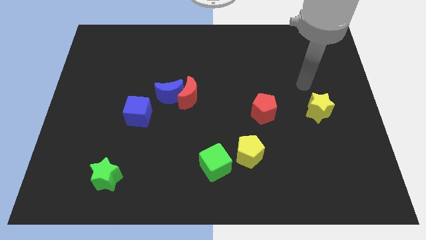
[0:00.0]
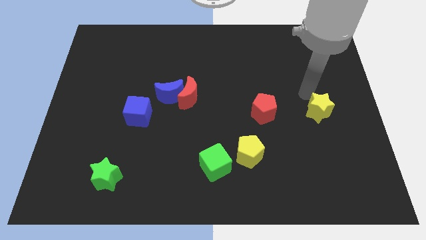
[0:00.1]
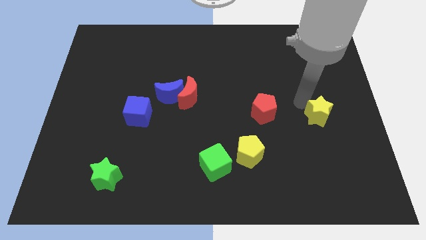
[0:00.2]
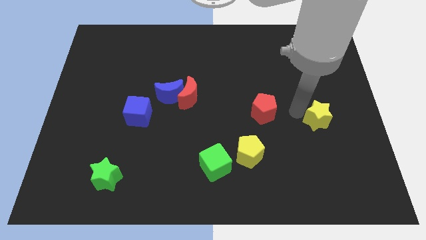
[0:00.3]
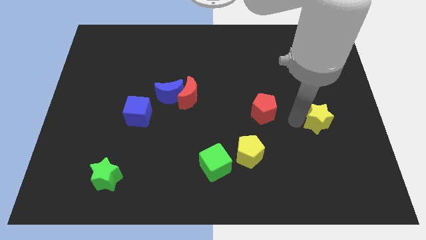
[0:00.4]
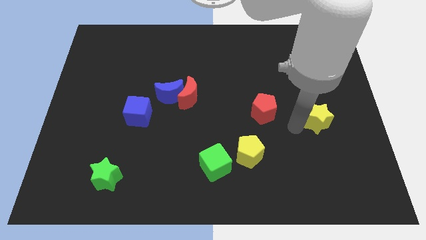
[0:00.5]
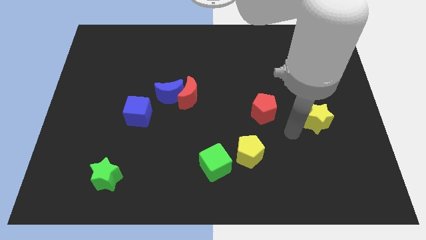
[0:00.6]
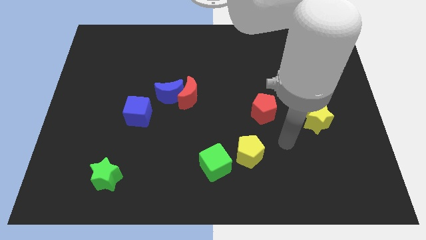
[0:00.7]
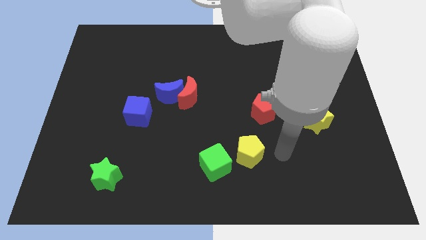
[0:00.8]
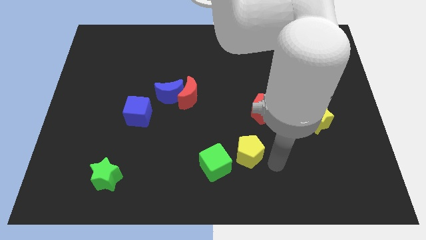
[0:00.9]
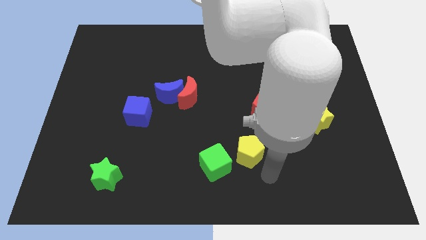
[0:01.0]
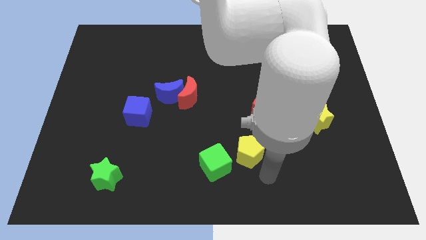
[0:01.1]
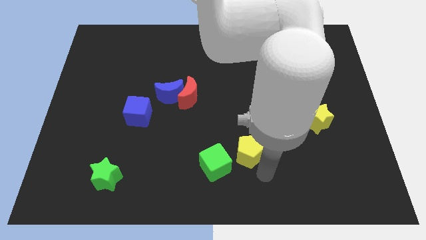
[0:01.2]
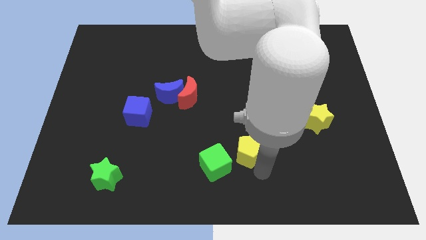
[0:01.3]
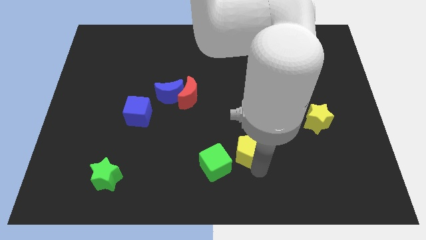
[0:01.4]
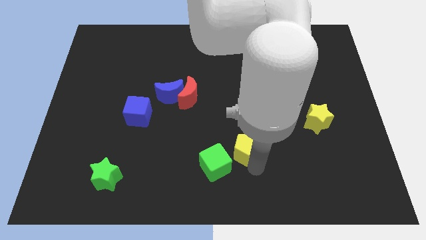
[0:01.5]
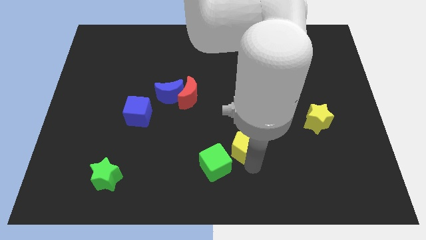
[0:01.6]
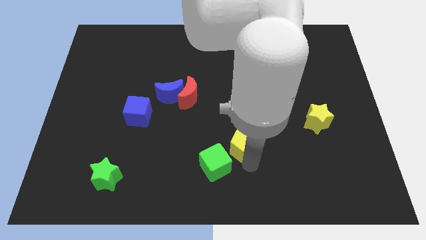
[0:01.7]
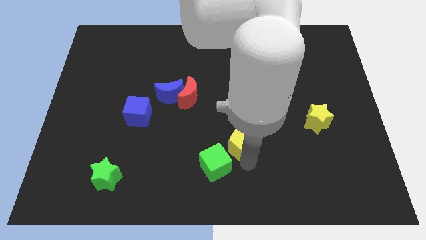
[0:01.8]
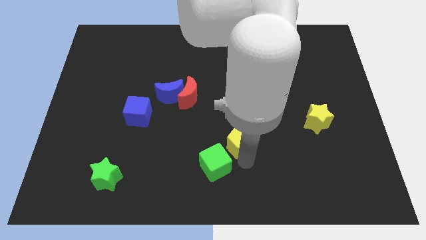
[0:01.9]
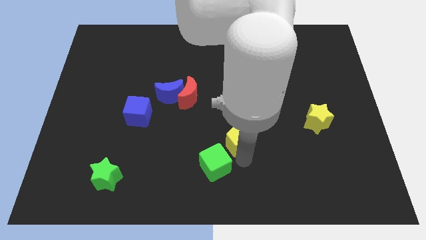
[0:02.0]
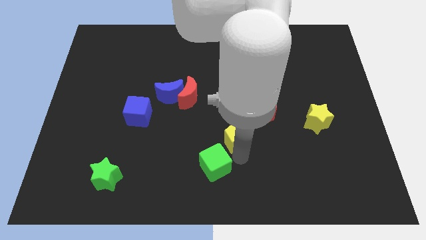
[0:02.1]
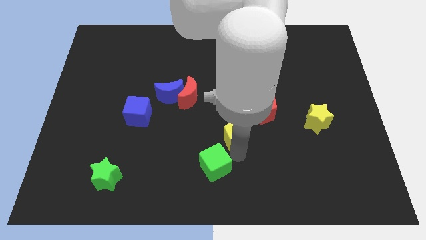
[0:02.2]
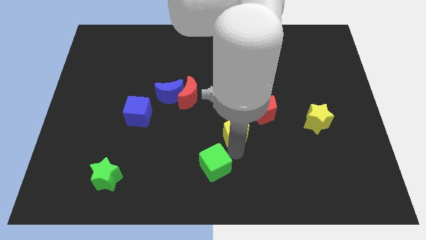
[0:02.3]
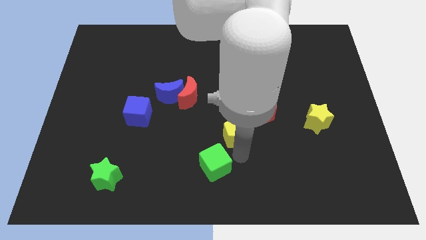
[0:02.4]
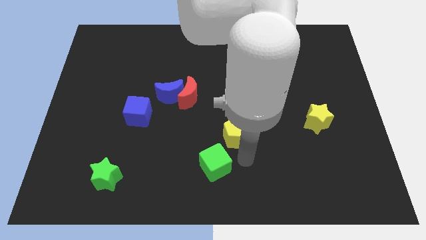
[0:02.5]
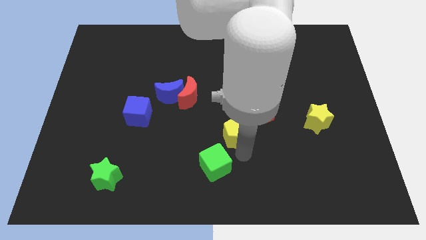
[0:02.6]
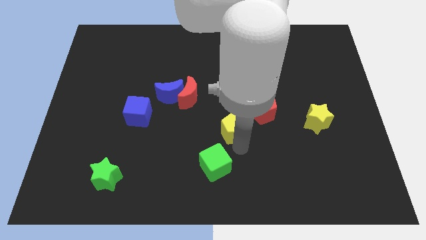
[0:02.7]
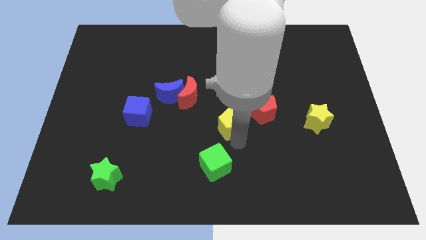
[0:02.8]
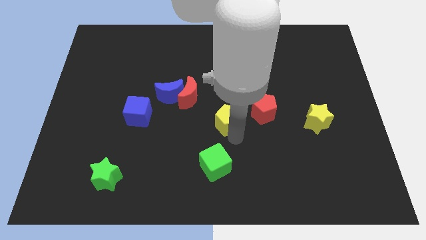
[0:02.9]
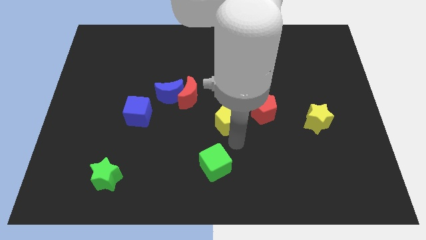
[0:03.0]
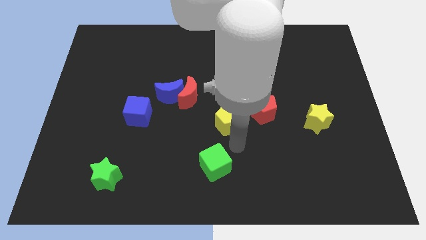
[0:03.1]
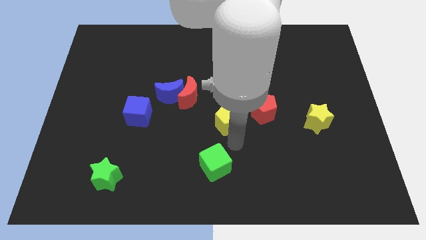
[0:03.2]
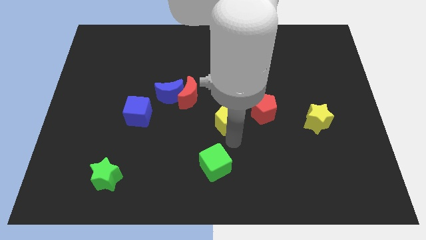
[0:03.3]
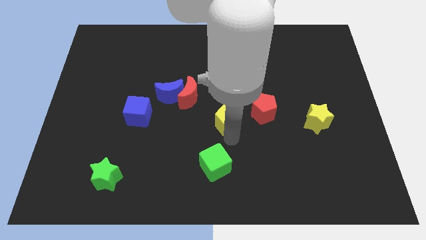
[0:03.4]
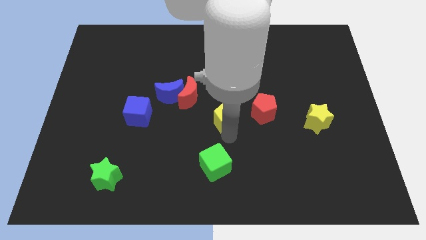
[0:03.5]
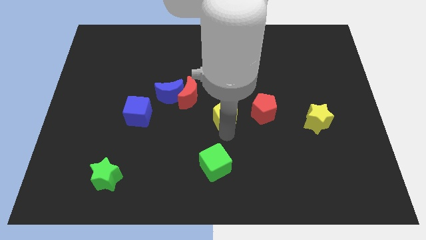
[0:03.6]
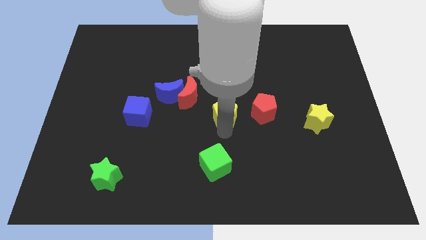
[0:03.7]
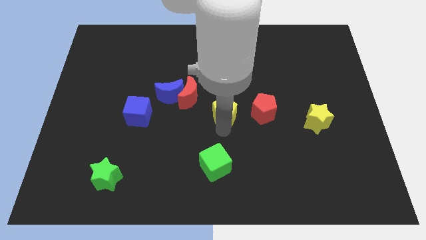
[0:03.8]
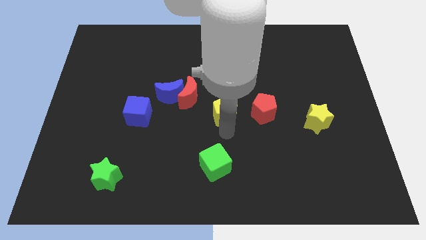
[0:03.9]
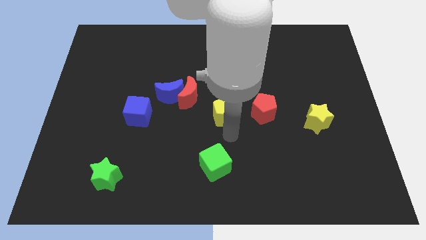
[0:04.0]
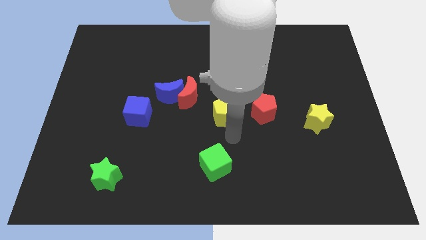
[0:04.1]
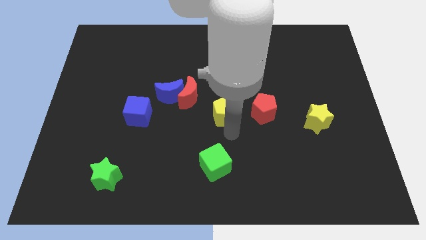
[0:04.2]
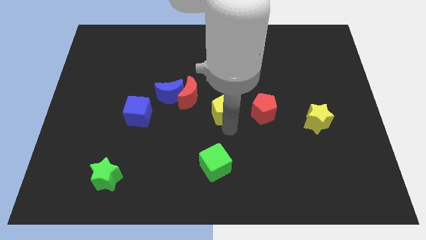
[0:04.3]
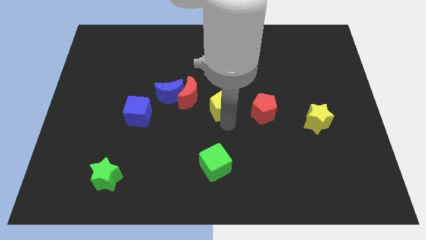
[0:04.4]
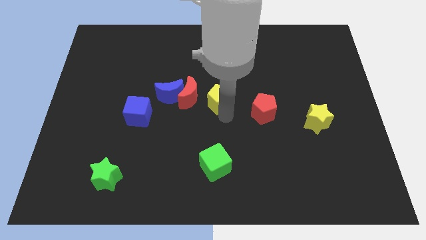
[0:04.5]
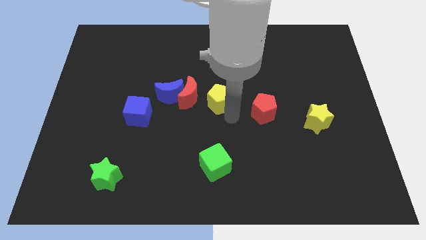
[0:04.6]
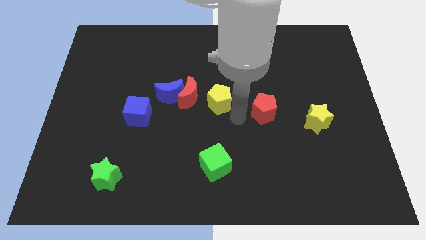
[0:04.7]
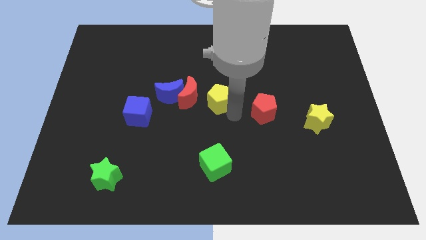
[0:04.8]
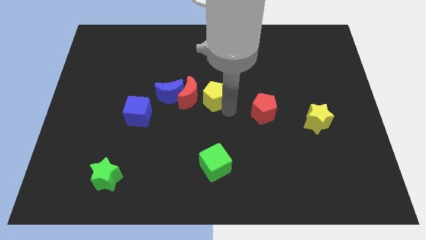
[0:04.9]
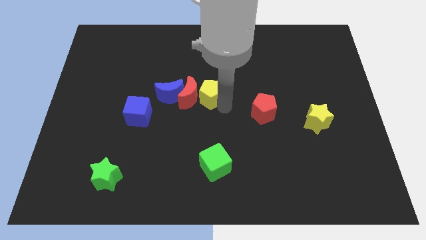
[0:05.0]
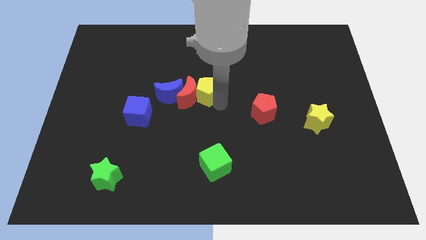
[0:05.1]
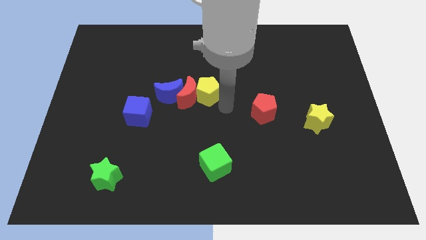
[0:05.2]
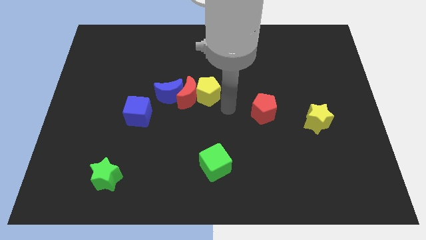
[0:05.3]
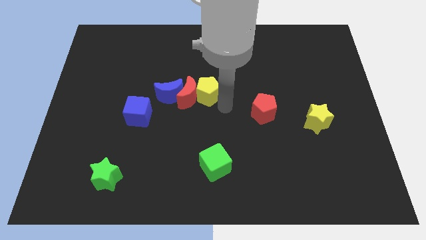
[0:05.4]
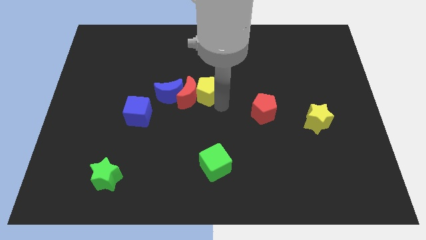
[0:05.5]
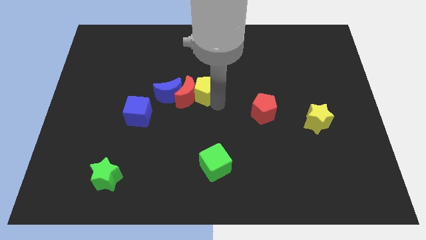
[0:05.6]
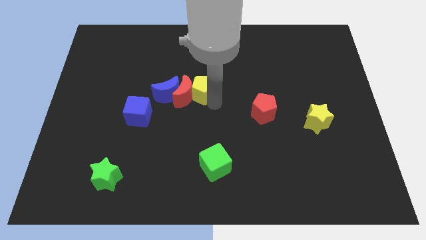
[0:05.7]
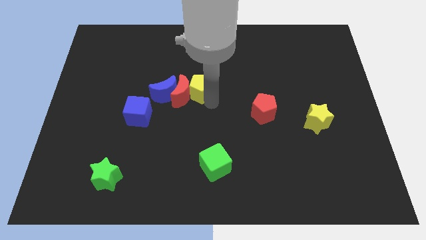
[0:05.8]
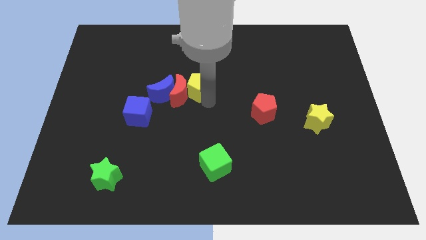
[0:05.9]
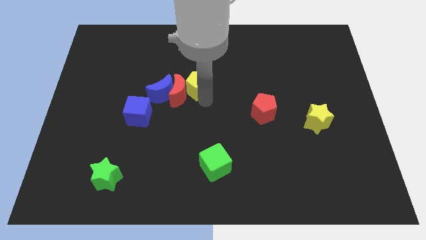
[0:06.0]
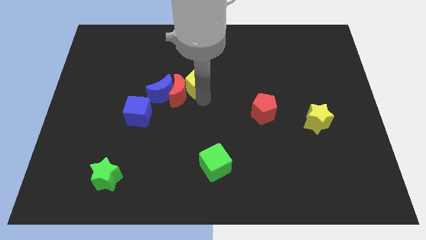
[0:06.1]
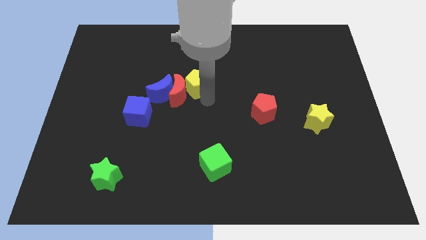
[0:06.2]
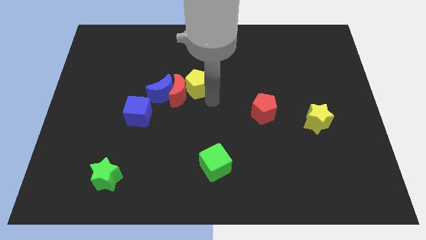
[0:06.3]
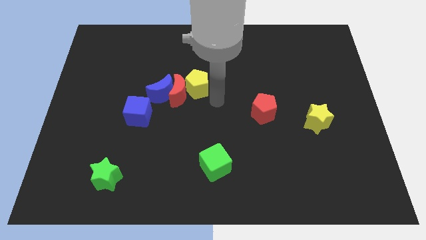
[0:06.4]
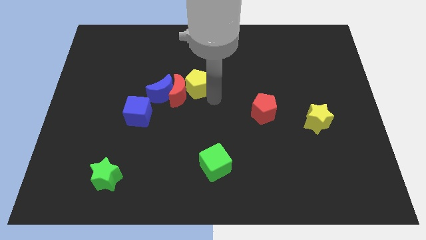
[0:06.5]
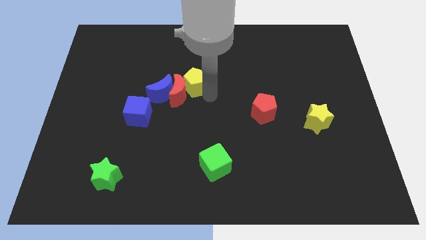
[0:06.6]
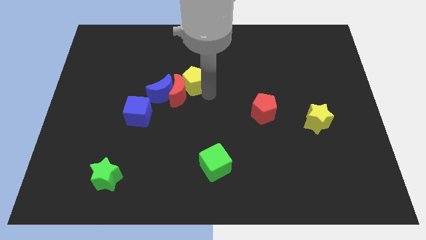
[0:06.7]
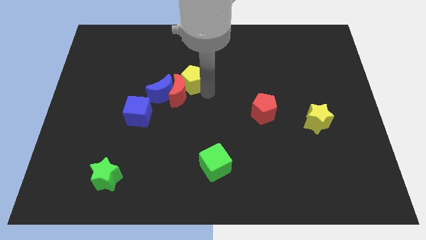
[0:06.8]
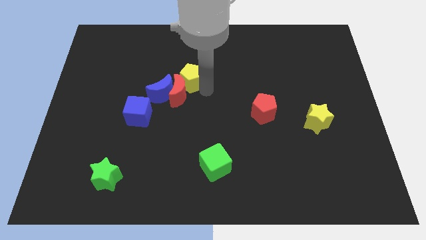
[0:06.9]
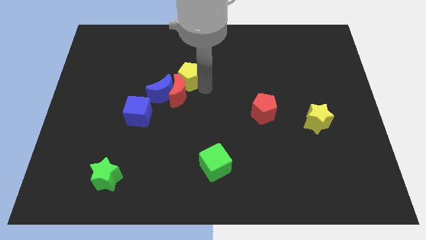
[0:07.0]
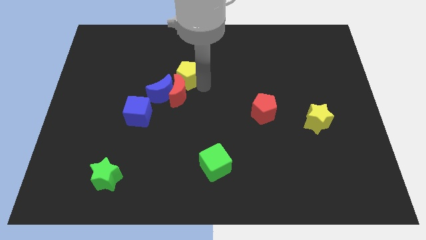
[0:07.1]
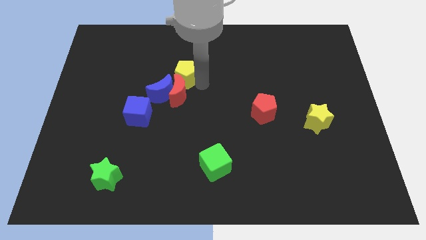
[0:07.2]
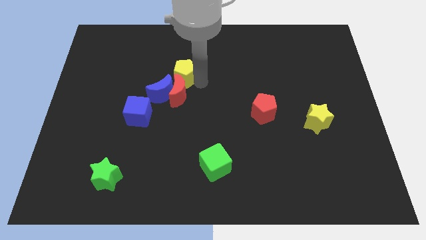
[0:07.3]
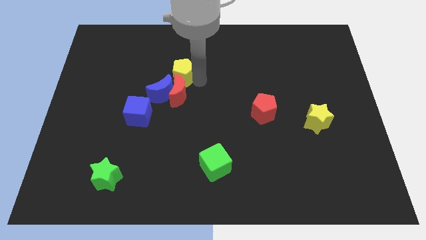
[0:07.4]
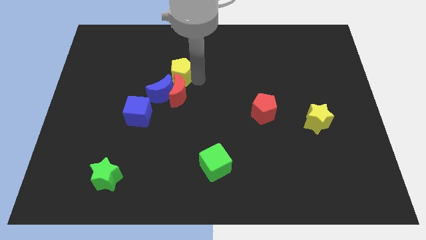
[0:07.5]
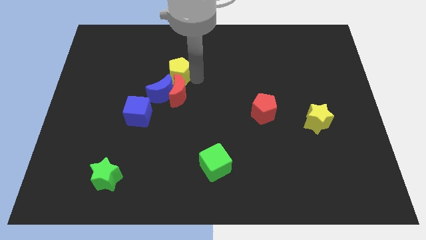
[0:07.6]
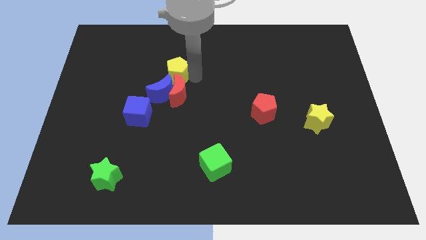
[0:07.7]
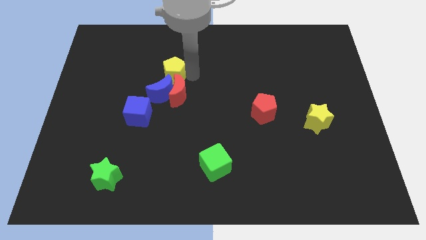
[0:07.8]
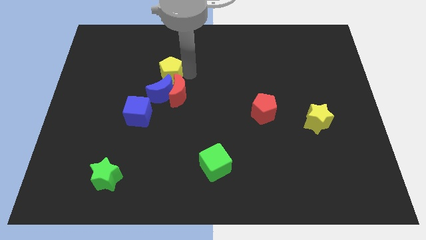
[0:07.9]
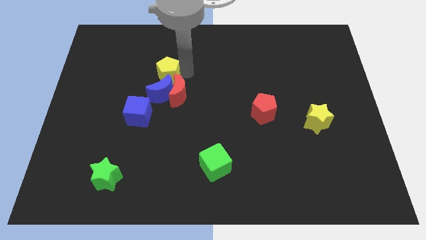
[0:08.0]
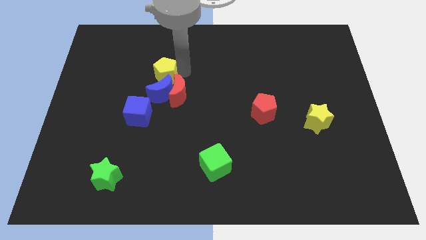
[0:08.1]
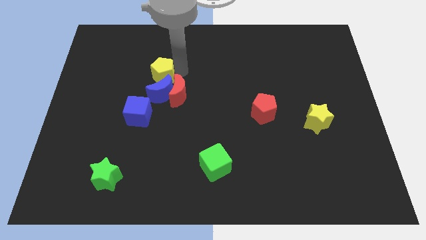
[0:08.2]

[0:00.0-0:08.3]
push the yellow pentagon to the top side of the blue cube
